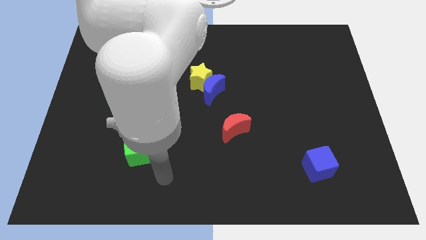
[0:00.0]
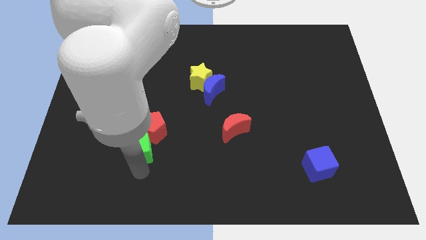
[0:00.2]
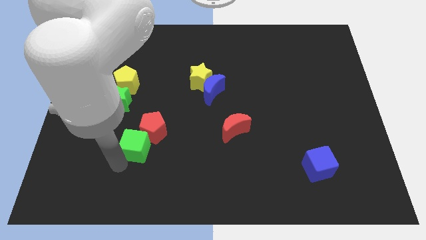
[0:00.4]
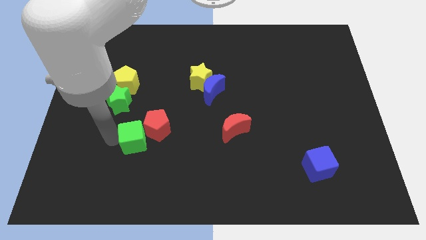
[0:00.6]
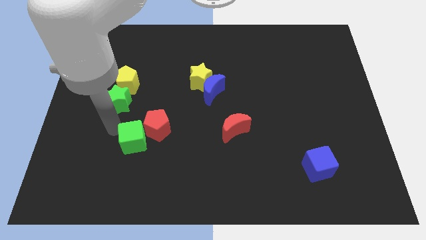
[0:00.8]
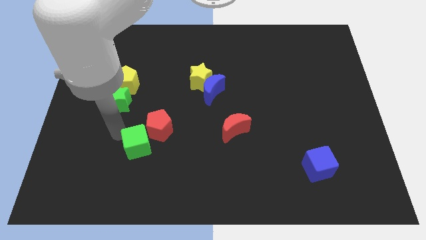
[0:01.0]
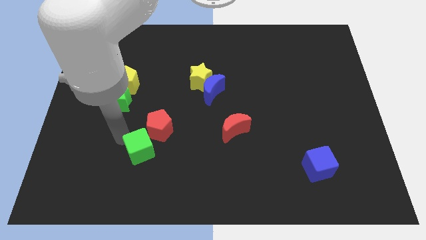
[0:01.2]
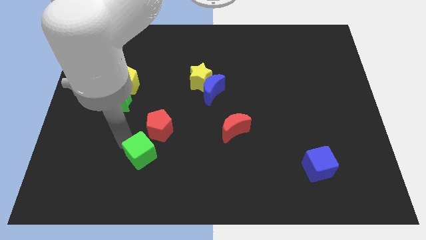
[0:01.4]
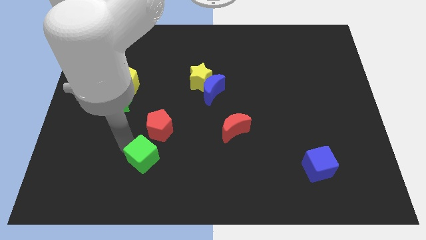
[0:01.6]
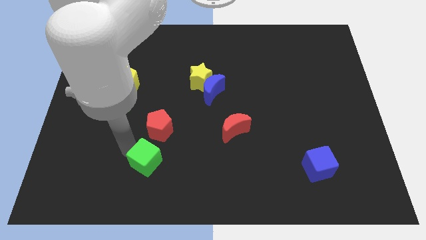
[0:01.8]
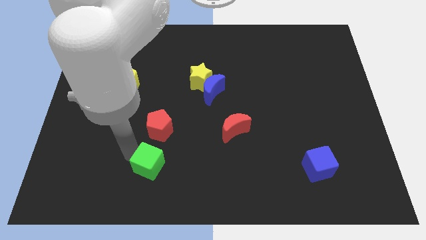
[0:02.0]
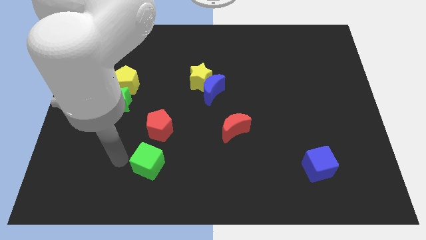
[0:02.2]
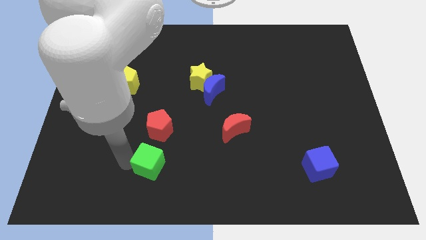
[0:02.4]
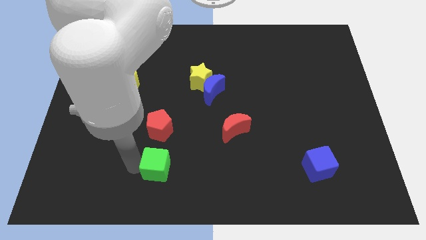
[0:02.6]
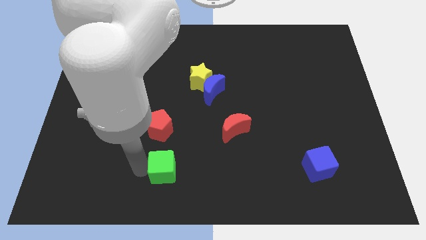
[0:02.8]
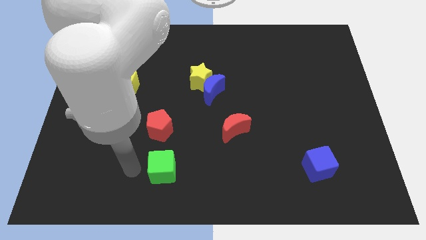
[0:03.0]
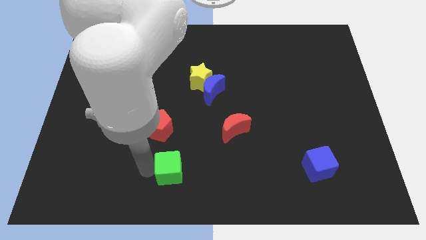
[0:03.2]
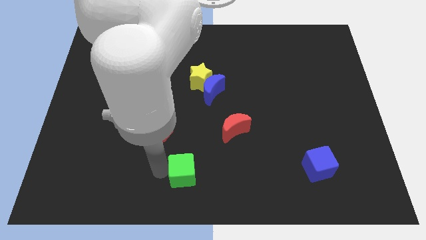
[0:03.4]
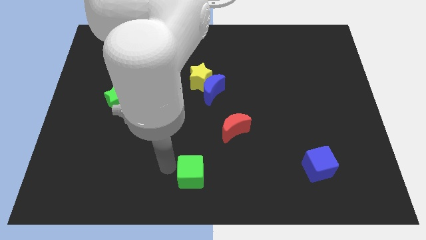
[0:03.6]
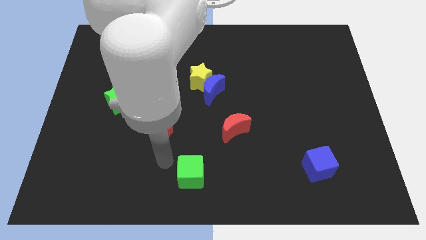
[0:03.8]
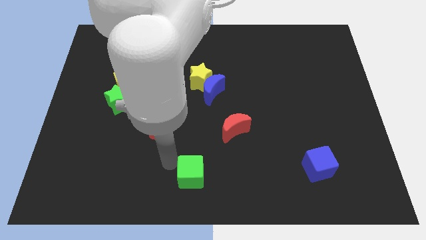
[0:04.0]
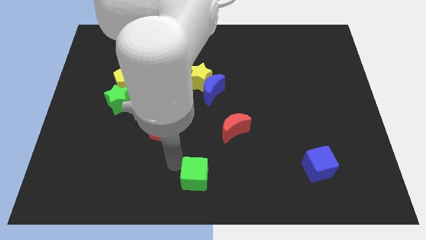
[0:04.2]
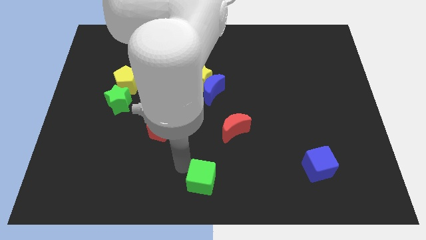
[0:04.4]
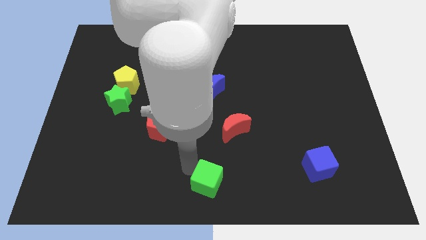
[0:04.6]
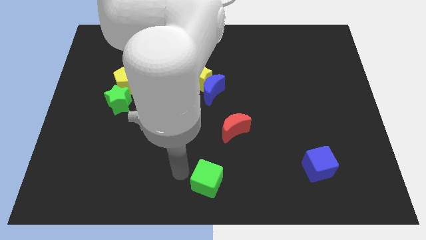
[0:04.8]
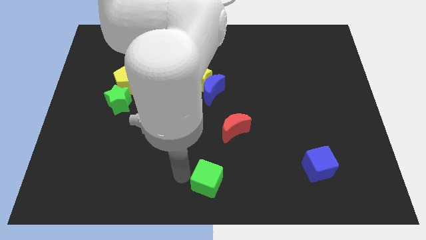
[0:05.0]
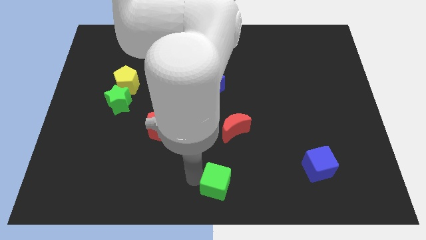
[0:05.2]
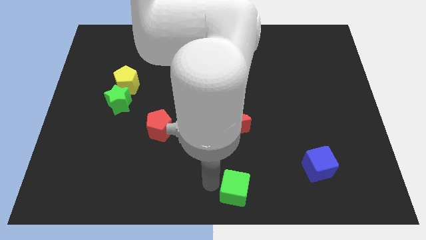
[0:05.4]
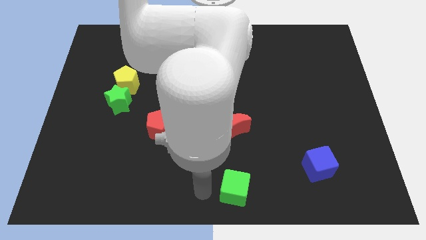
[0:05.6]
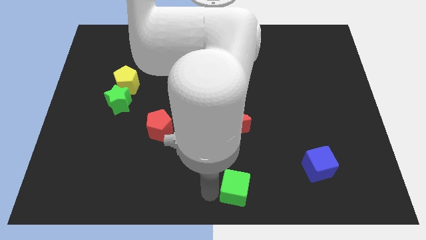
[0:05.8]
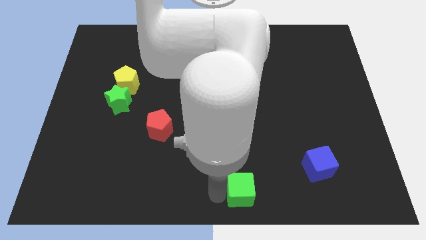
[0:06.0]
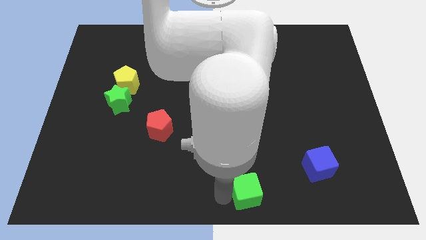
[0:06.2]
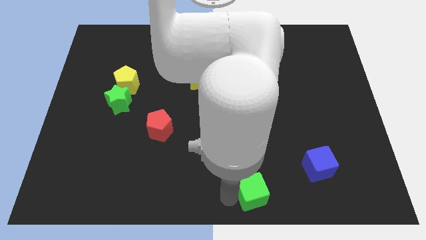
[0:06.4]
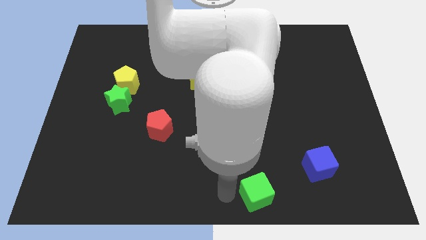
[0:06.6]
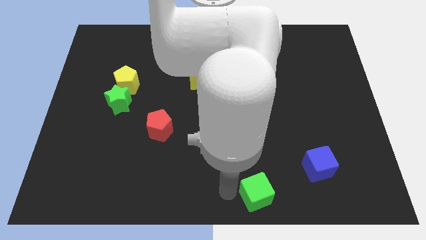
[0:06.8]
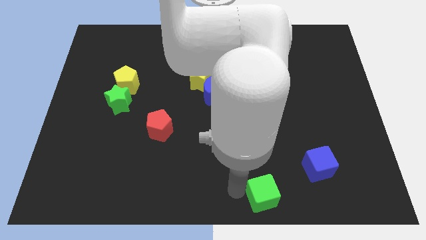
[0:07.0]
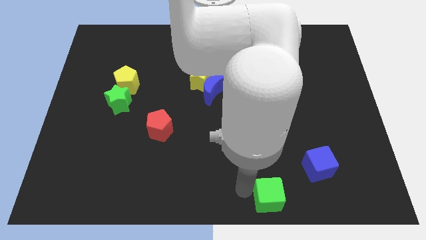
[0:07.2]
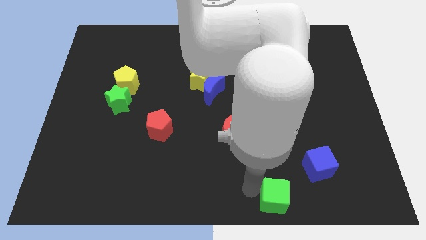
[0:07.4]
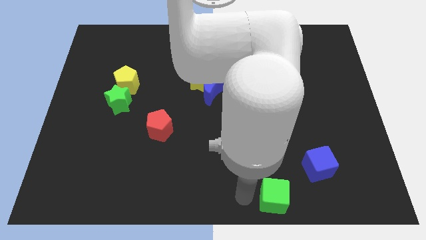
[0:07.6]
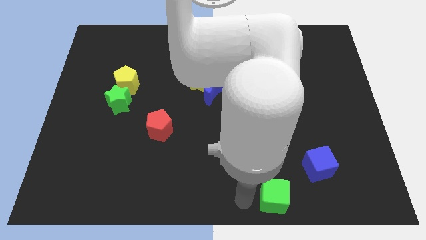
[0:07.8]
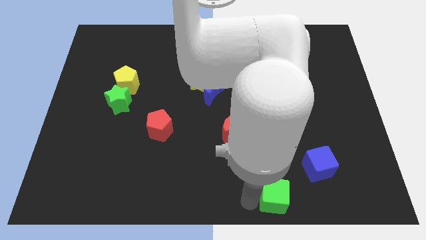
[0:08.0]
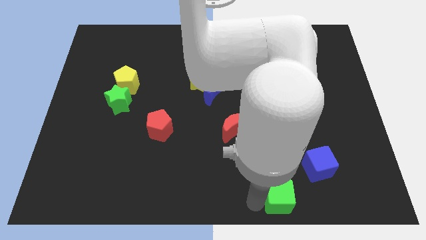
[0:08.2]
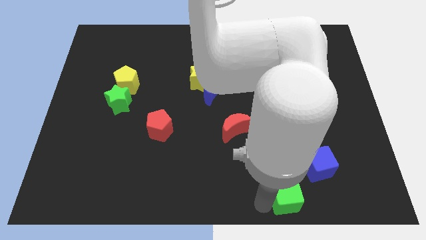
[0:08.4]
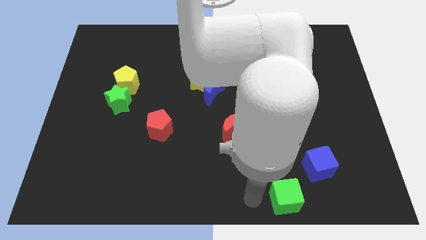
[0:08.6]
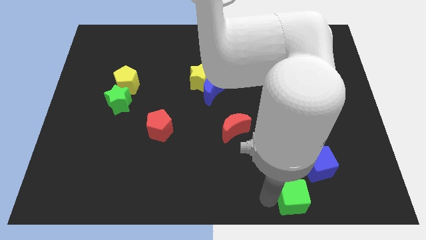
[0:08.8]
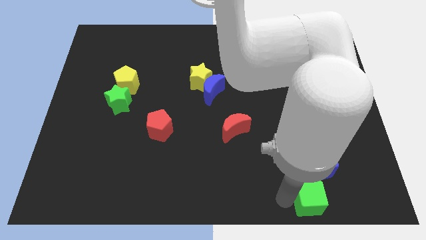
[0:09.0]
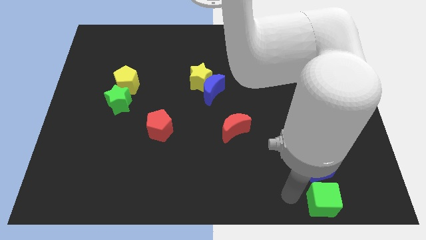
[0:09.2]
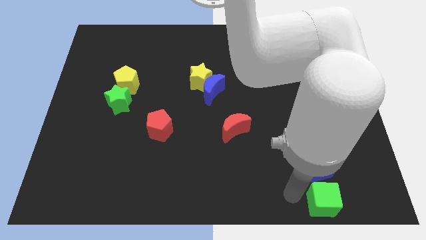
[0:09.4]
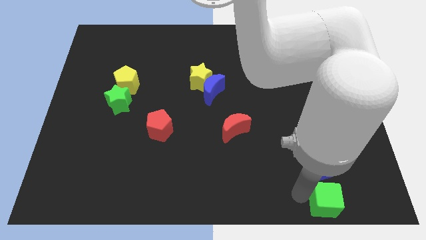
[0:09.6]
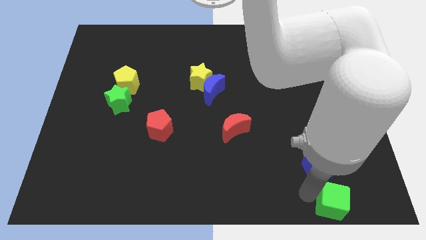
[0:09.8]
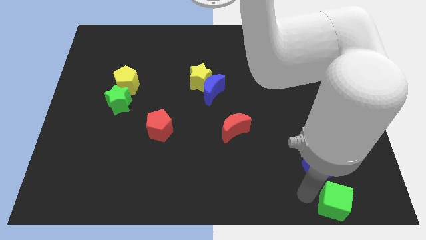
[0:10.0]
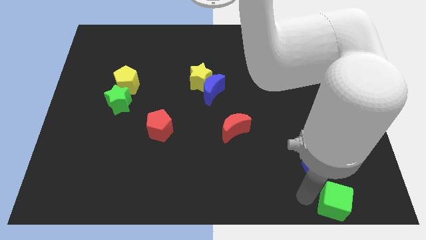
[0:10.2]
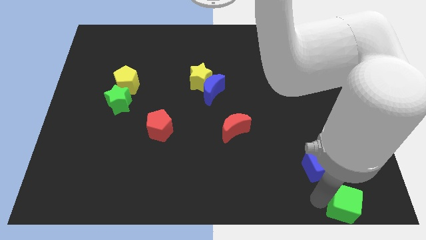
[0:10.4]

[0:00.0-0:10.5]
move the green cube to the bottom right

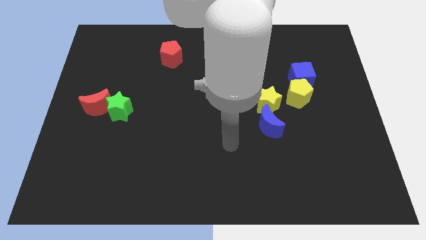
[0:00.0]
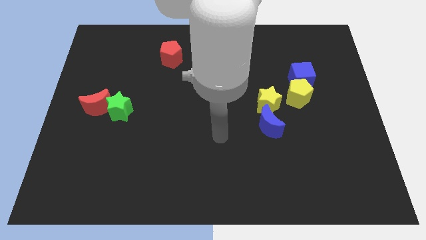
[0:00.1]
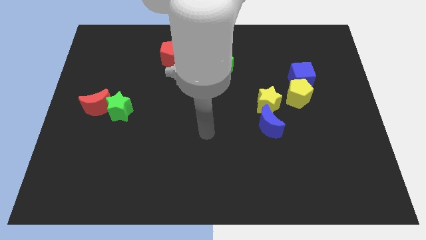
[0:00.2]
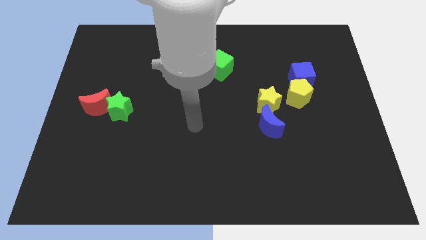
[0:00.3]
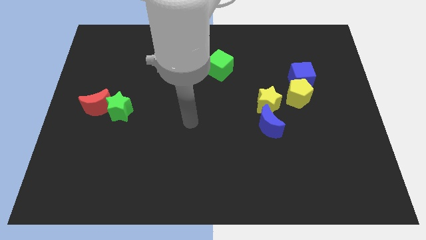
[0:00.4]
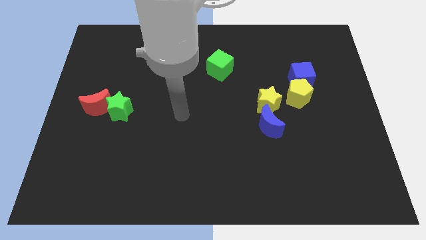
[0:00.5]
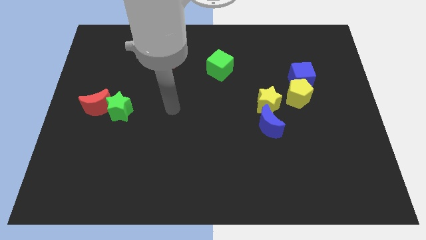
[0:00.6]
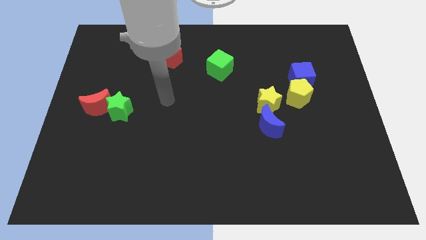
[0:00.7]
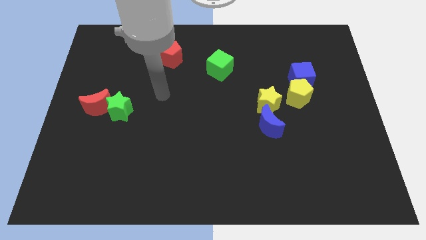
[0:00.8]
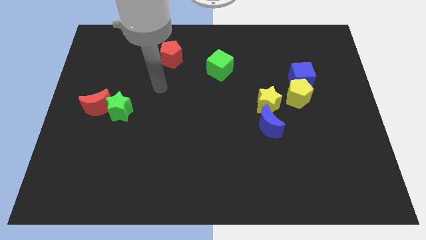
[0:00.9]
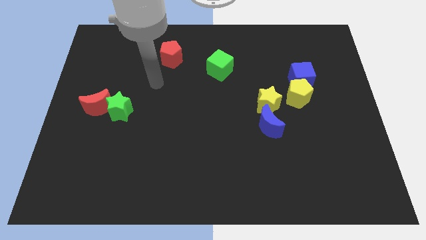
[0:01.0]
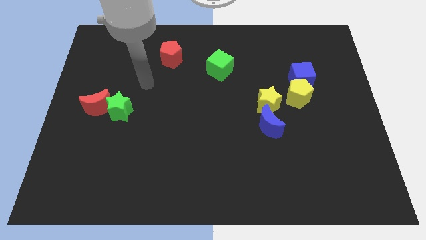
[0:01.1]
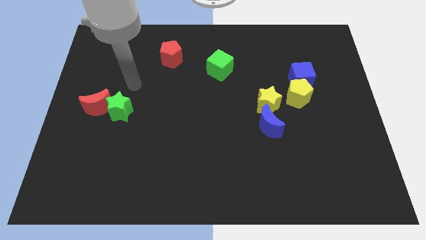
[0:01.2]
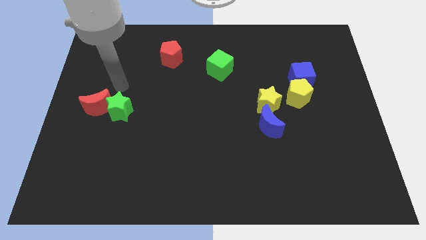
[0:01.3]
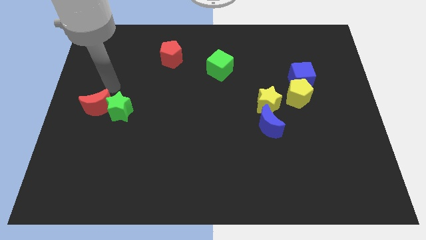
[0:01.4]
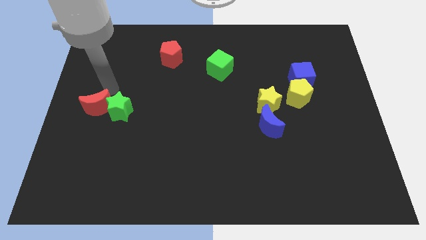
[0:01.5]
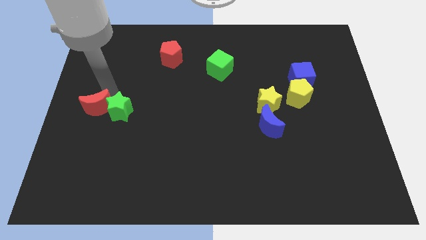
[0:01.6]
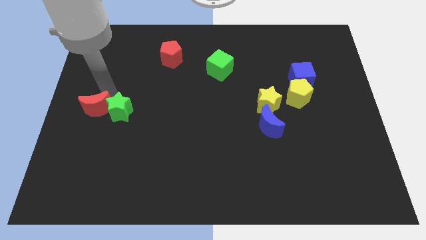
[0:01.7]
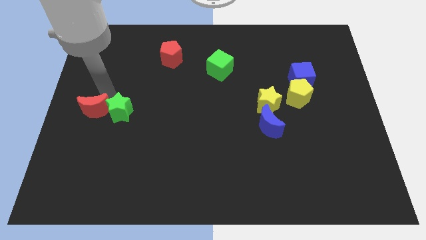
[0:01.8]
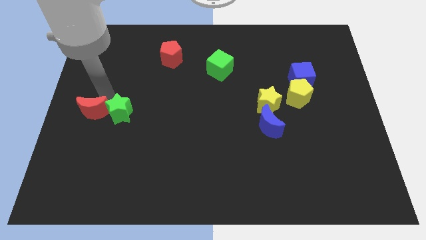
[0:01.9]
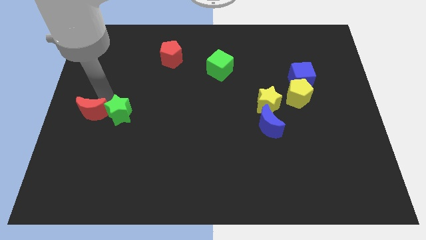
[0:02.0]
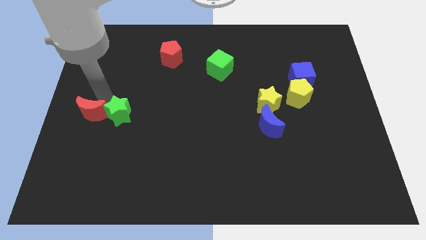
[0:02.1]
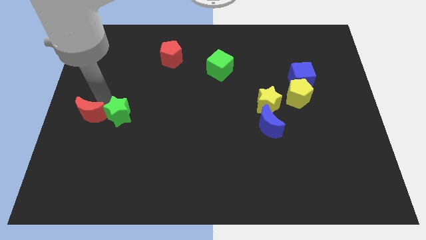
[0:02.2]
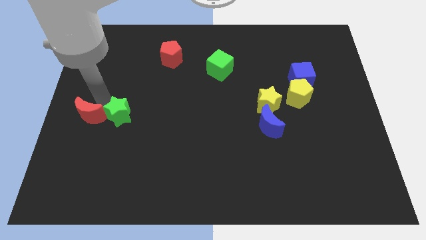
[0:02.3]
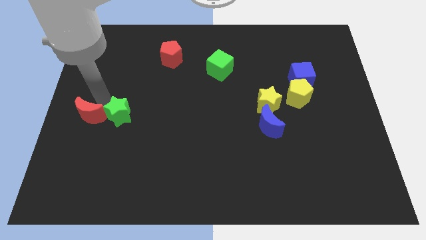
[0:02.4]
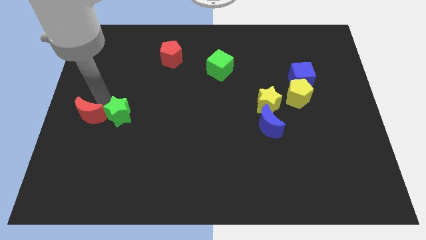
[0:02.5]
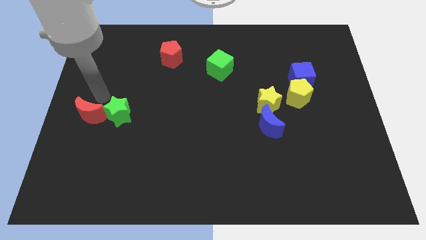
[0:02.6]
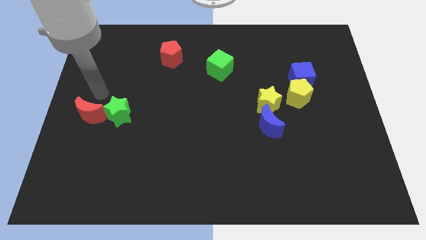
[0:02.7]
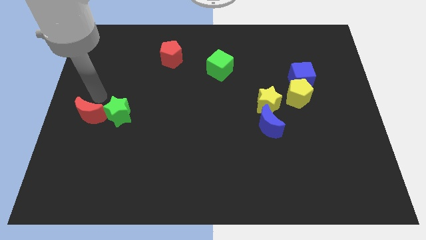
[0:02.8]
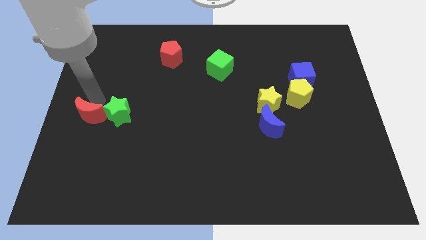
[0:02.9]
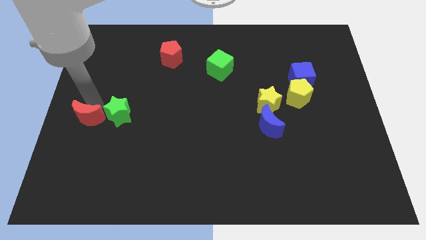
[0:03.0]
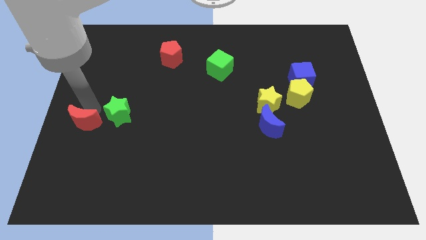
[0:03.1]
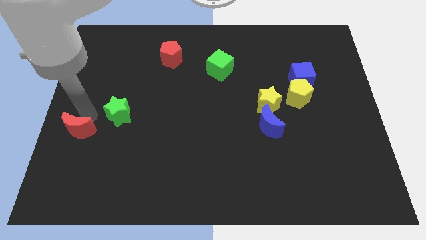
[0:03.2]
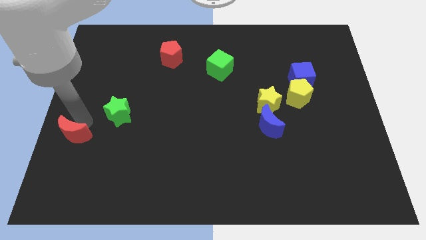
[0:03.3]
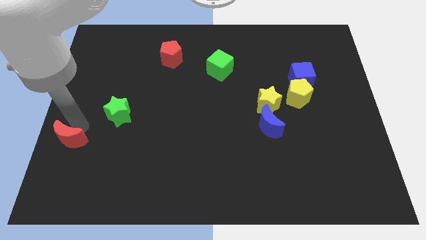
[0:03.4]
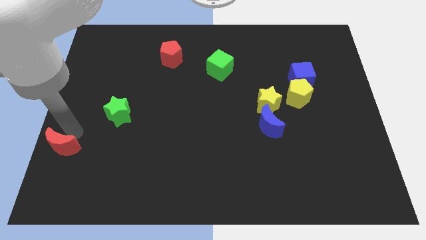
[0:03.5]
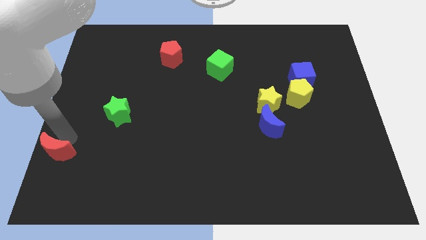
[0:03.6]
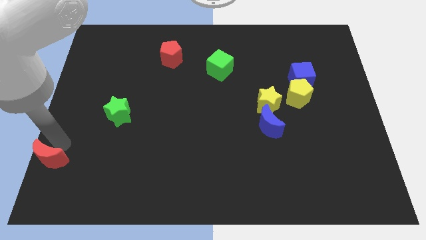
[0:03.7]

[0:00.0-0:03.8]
push the red moon to the bottom left of the board
